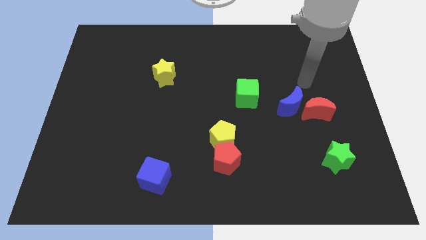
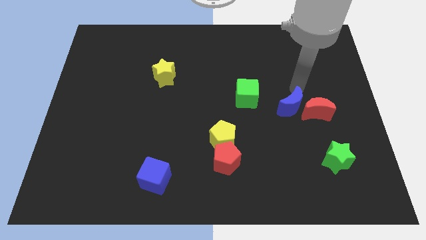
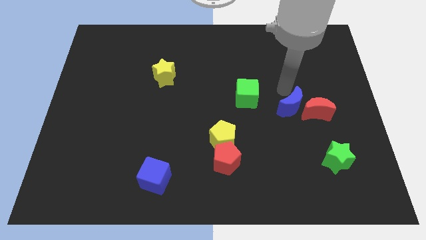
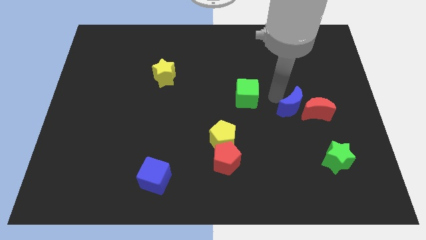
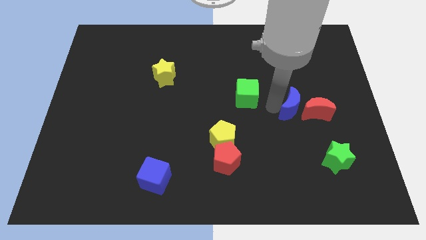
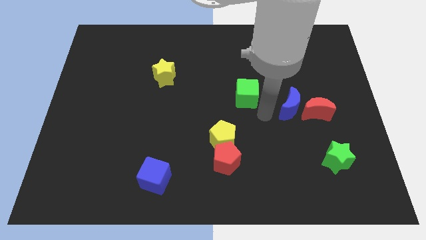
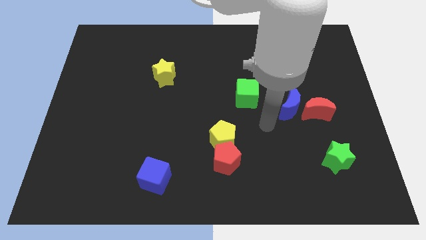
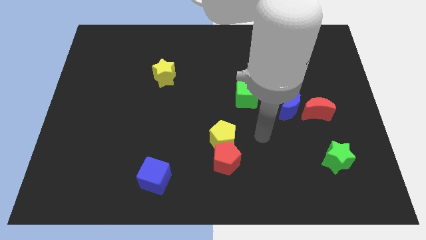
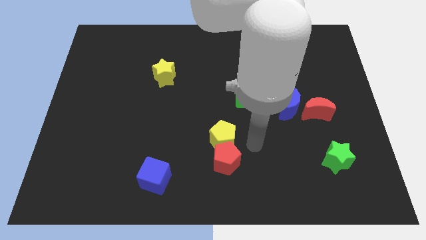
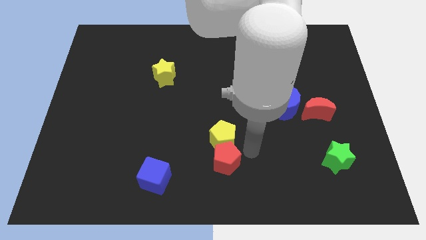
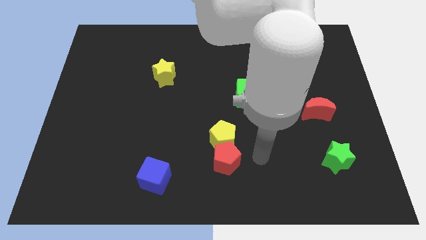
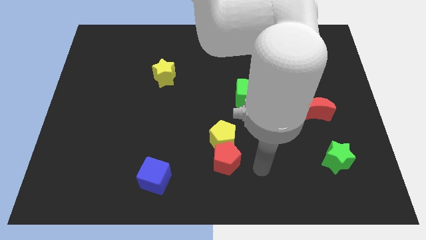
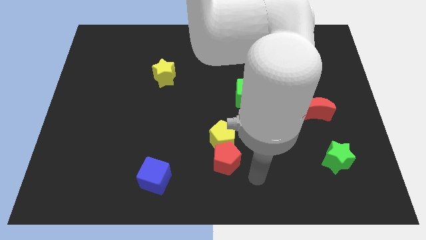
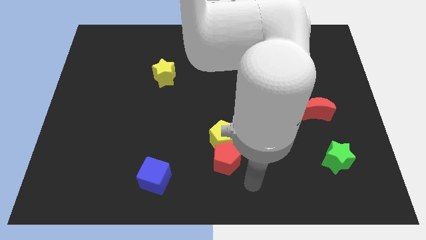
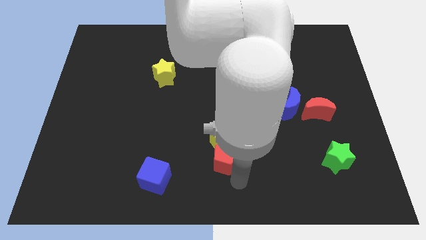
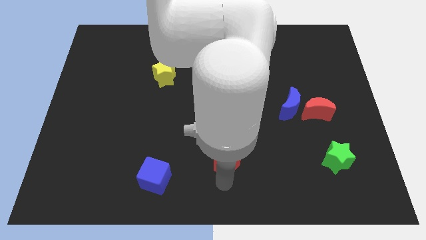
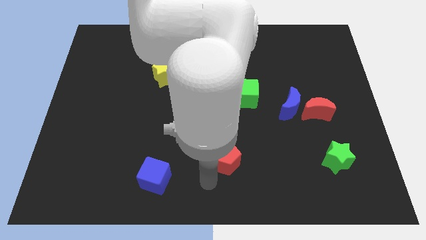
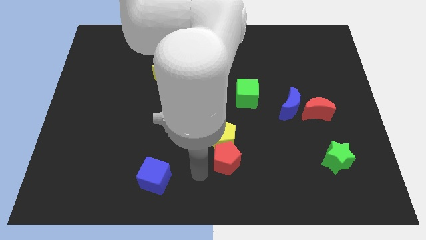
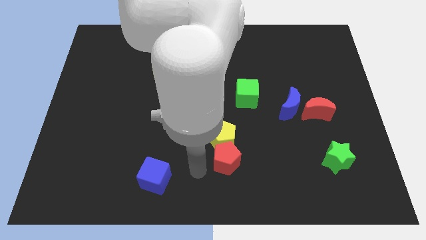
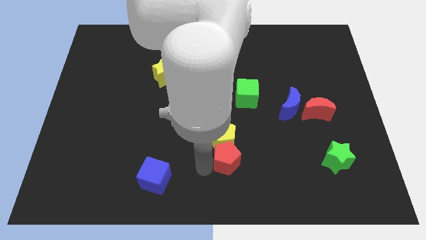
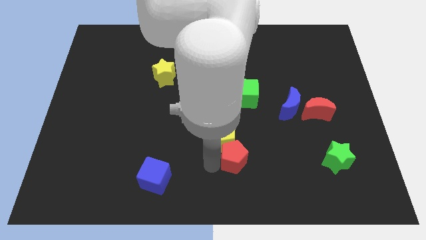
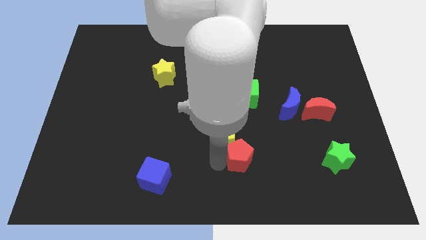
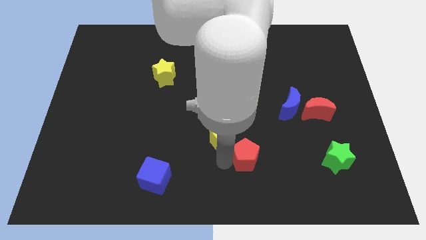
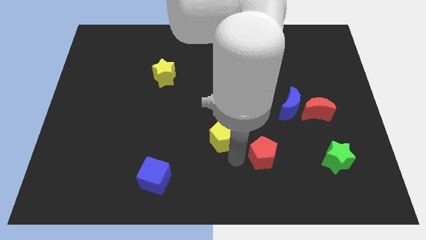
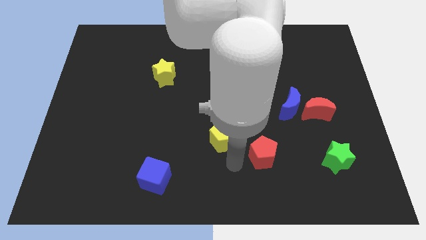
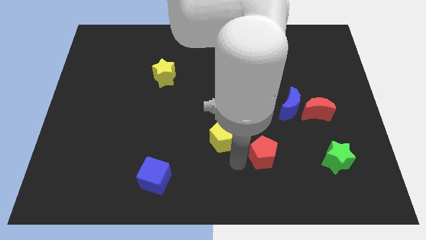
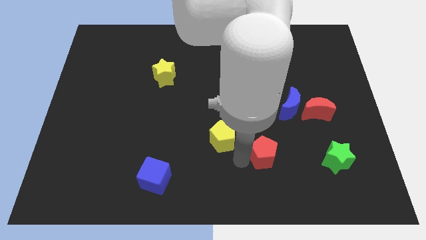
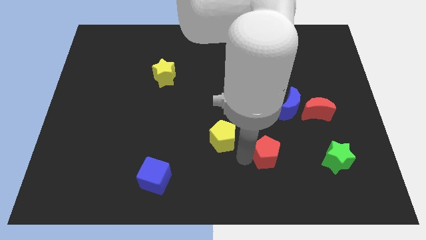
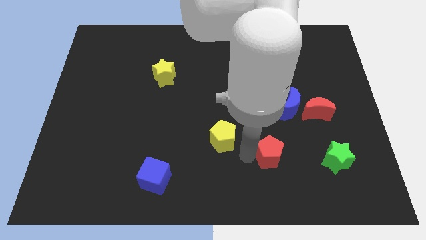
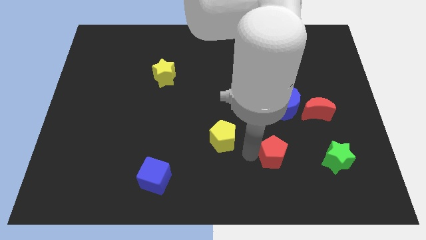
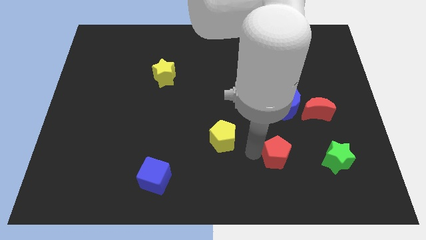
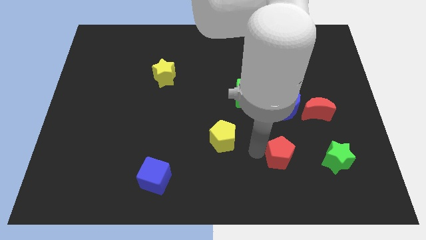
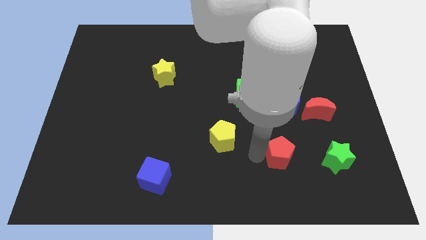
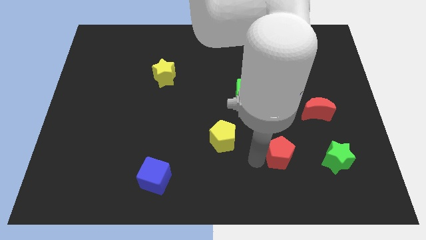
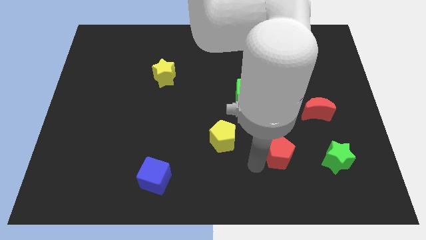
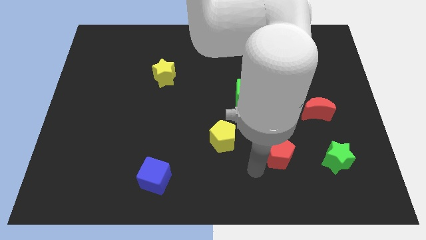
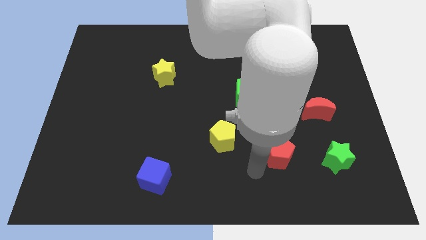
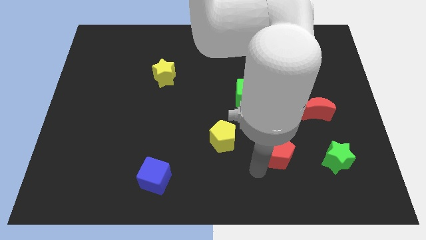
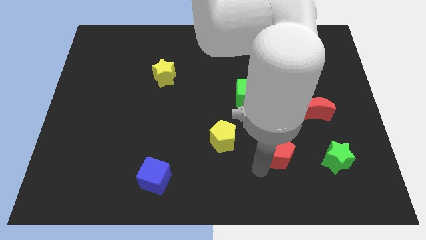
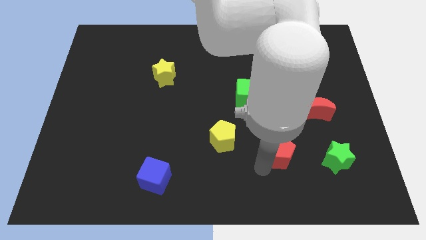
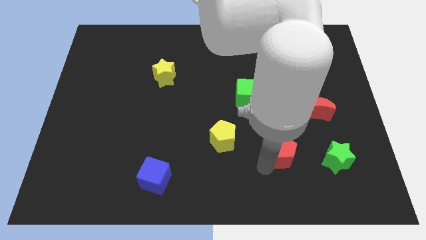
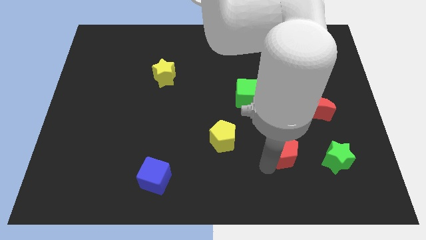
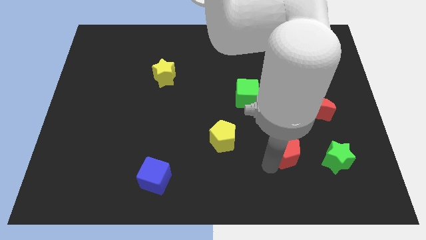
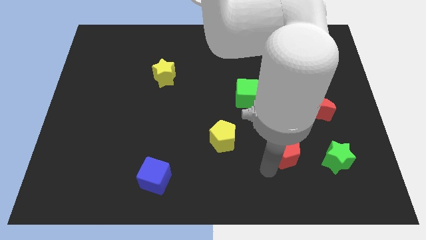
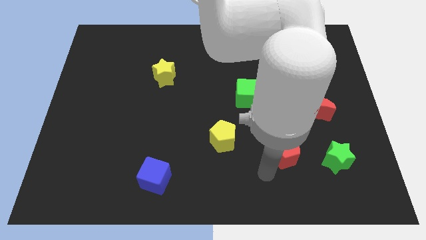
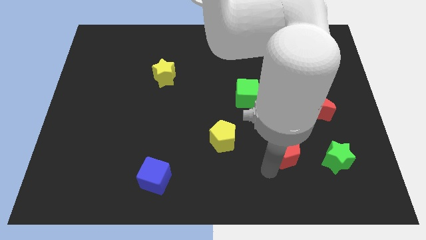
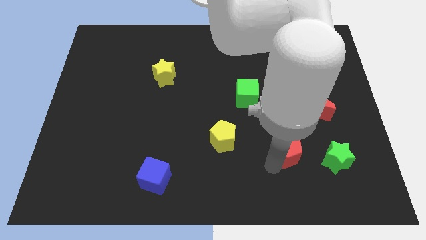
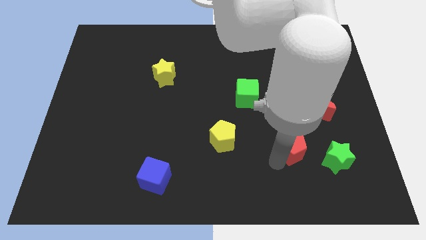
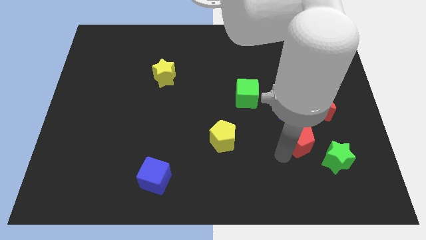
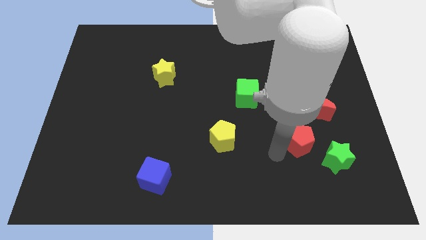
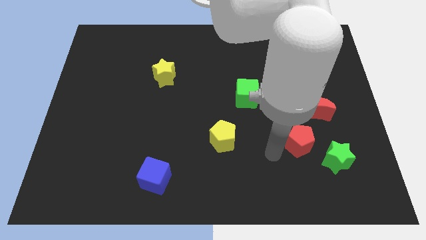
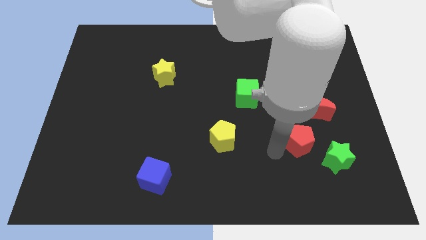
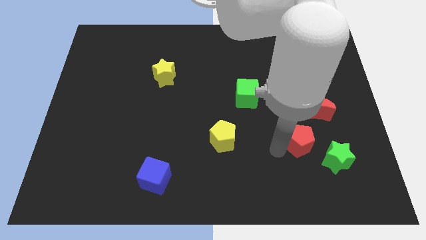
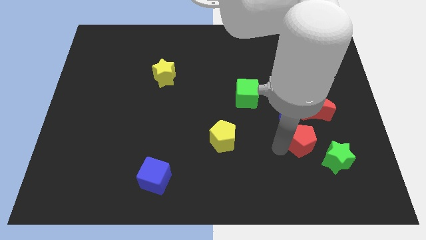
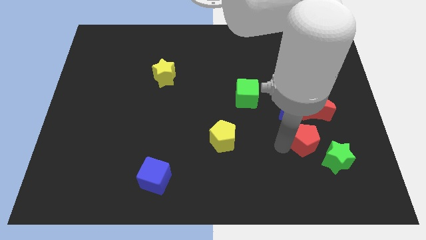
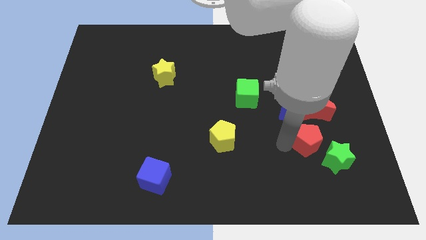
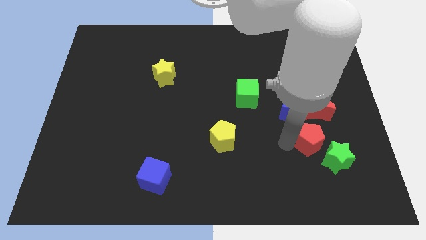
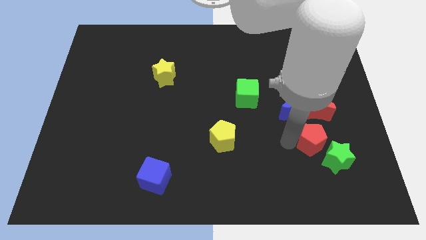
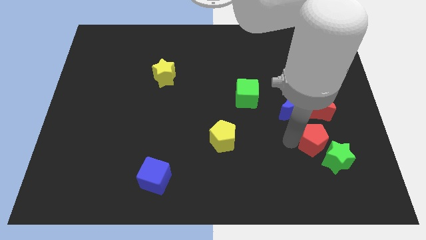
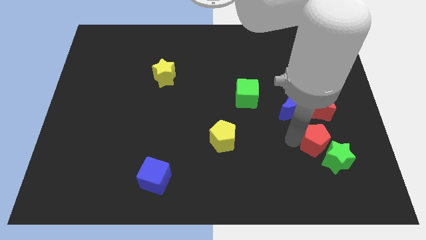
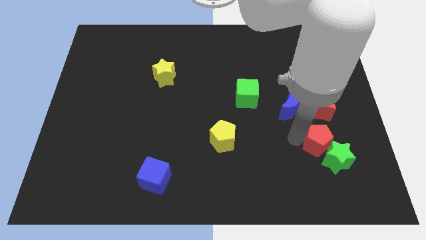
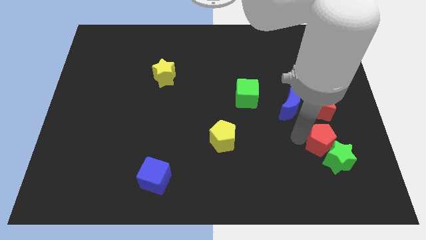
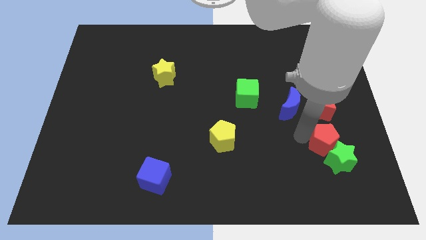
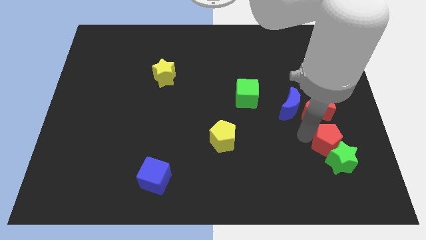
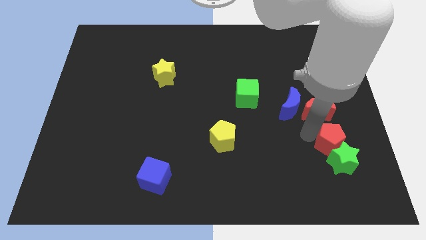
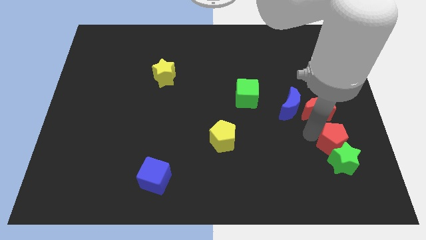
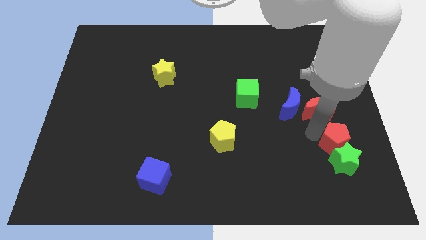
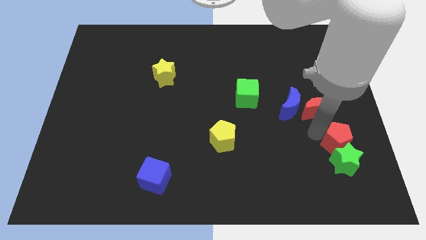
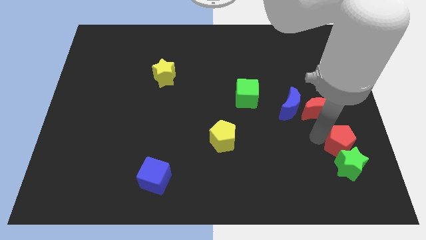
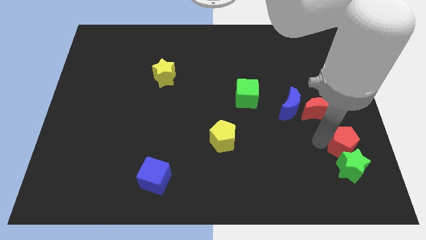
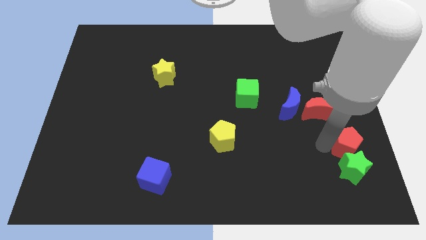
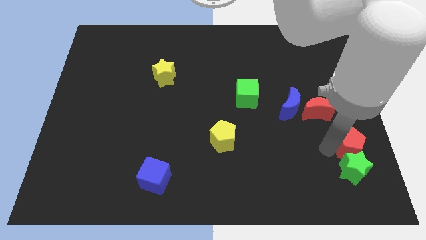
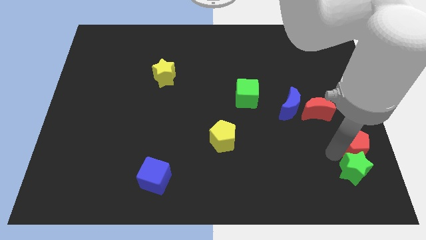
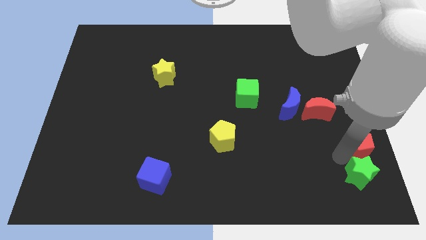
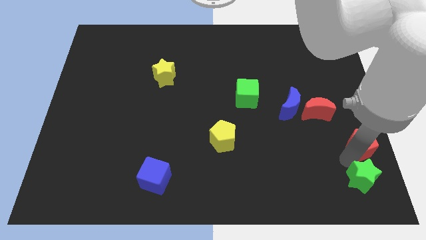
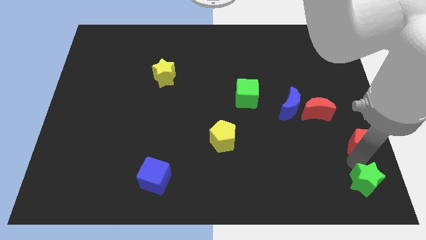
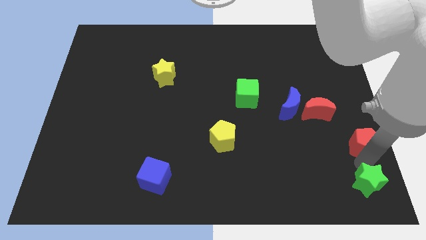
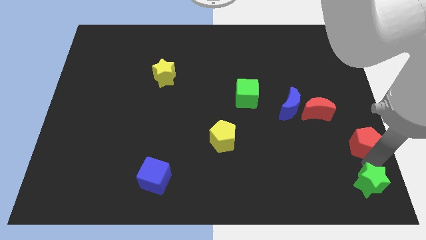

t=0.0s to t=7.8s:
push the red pentagon to the right side
